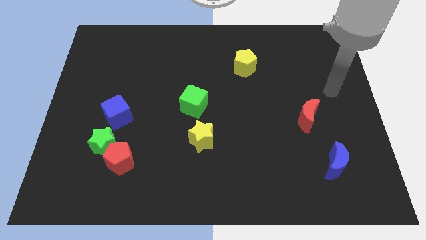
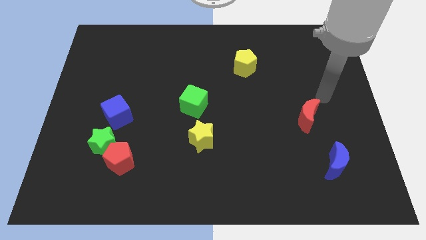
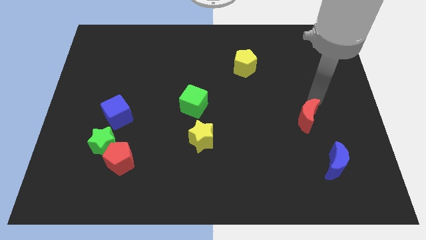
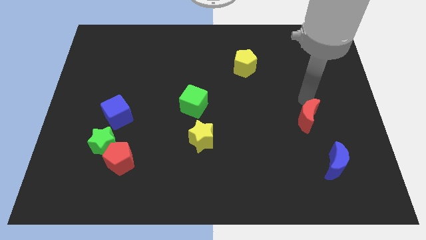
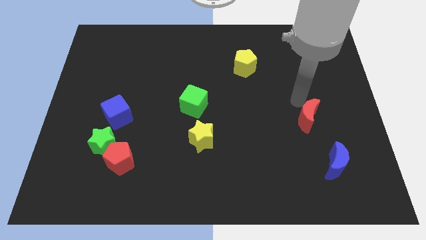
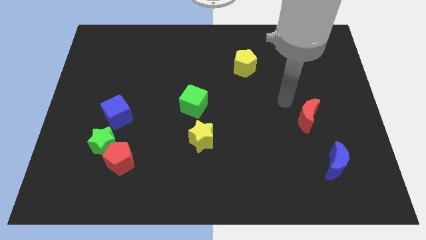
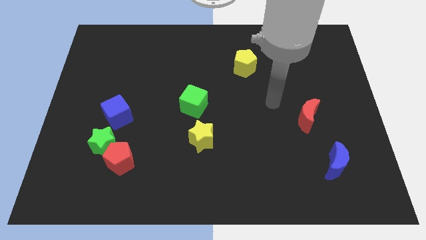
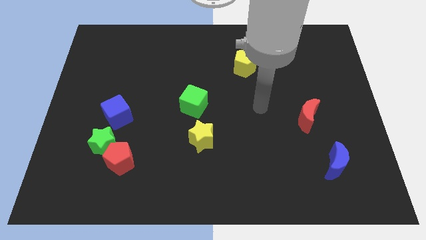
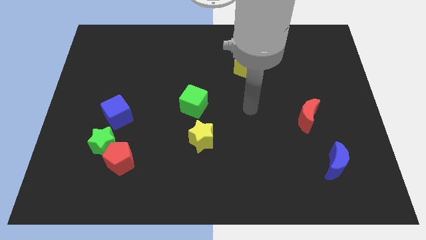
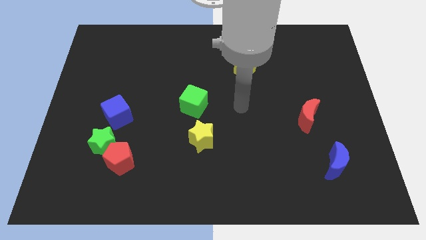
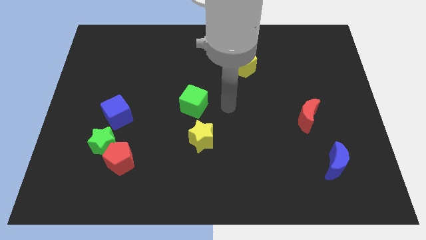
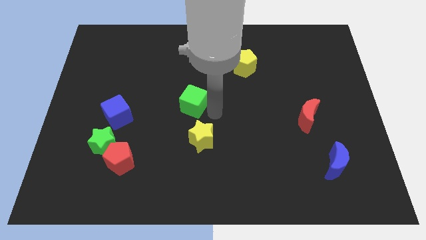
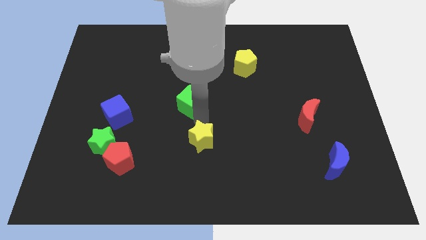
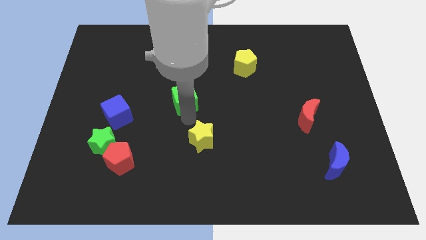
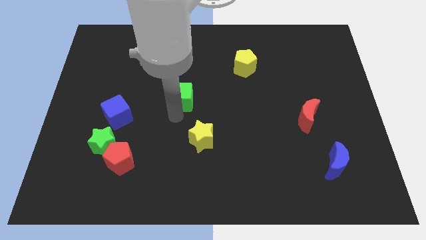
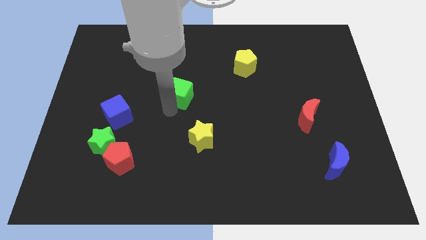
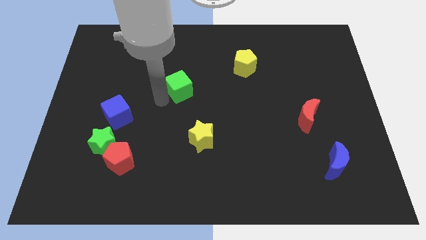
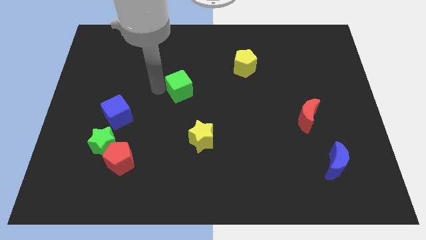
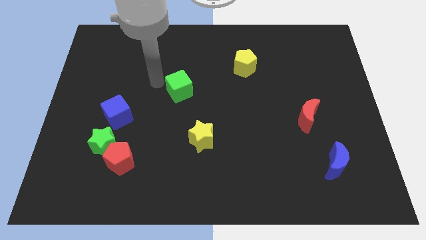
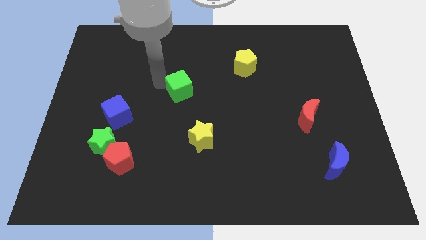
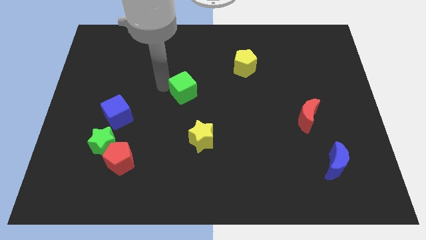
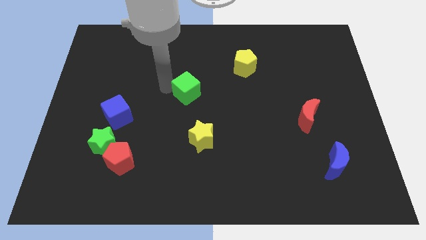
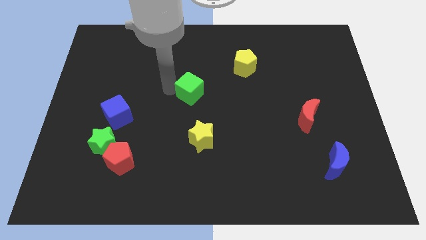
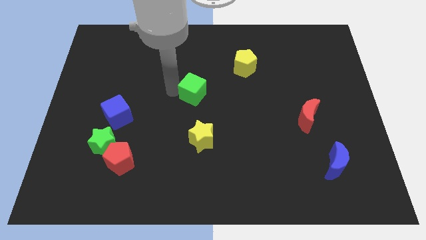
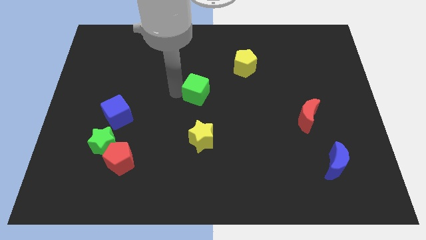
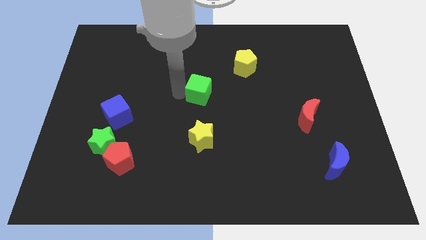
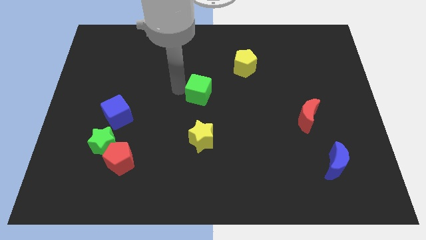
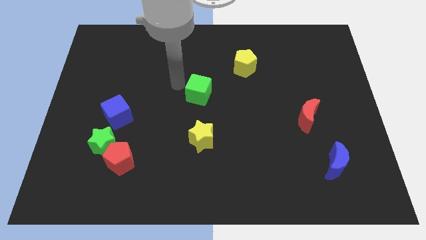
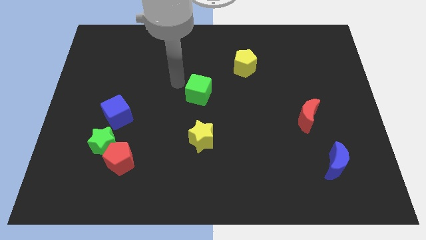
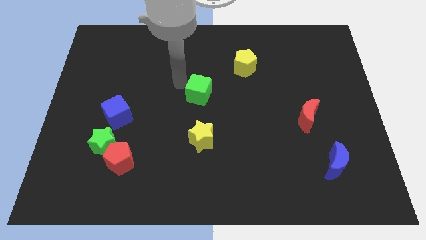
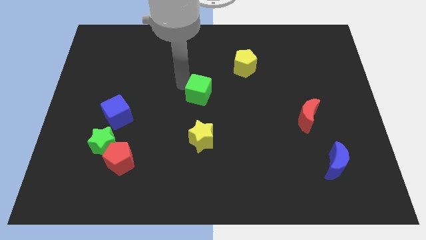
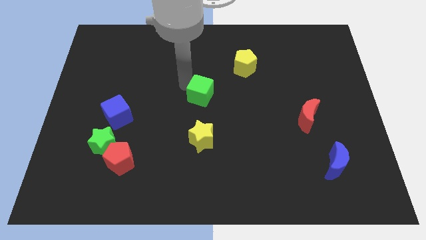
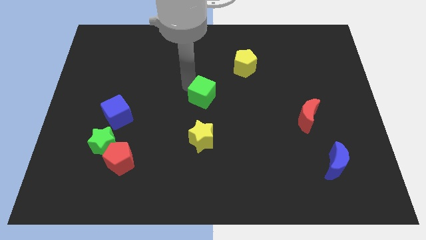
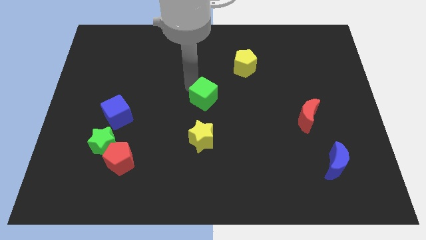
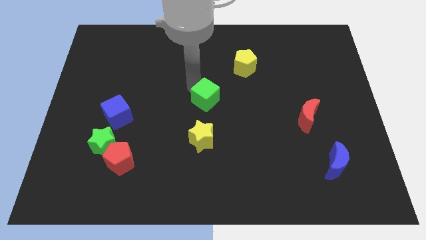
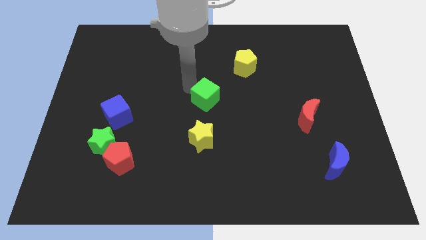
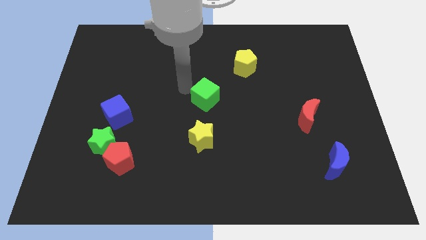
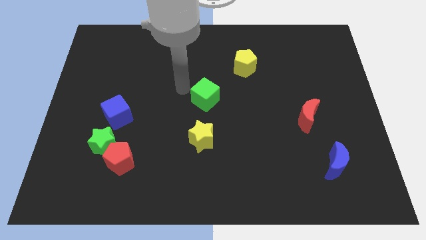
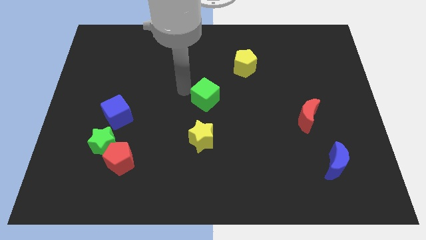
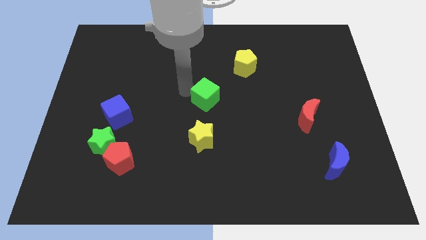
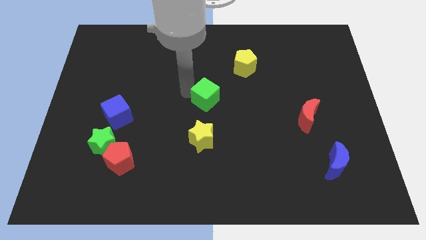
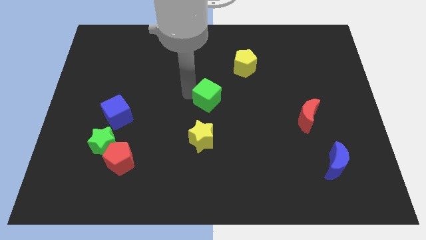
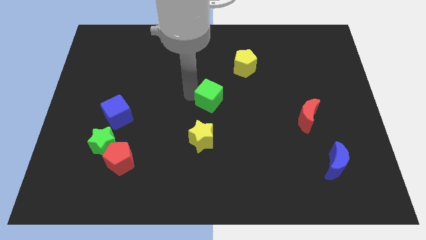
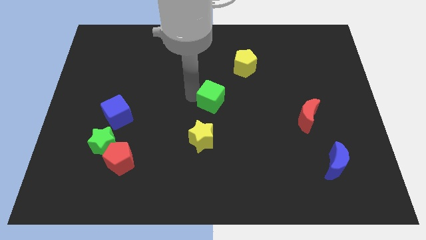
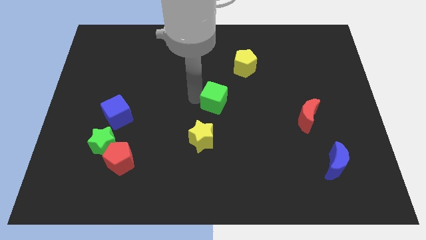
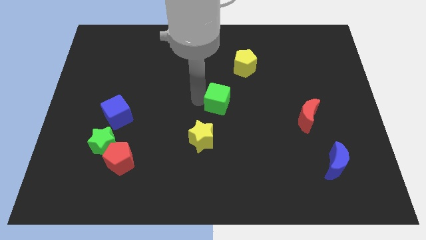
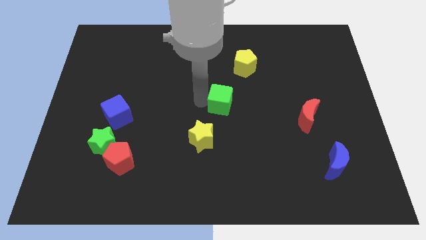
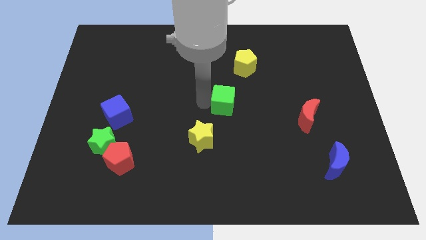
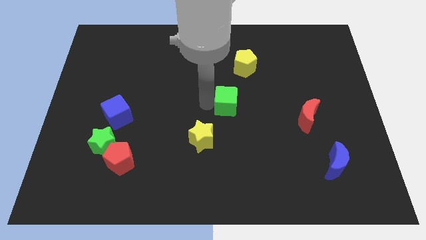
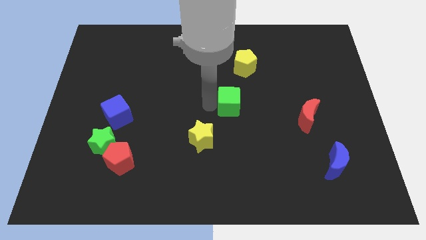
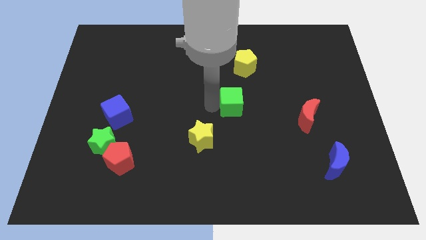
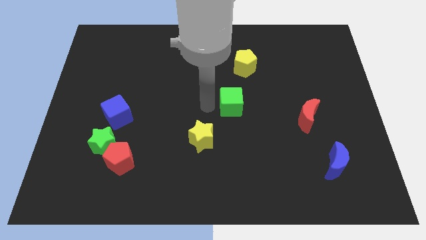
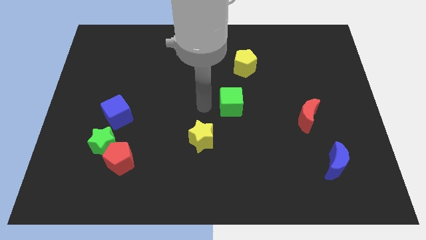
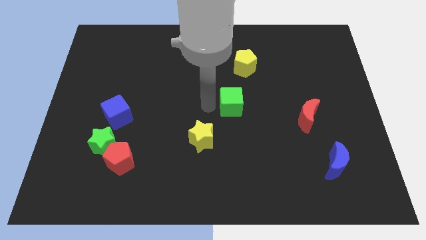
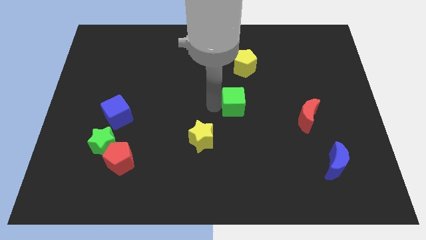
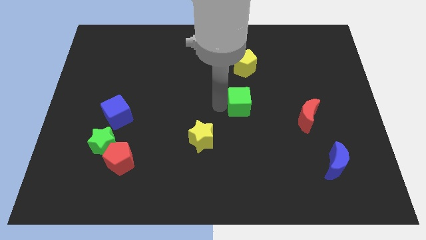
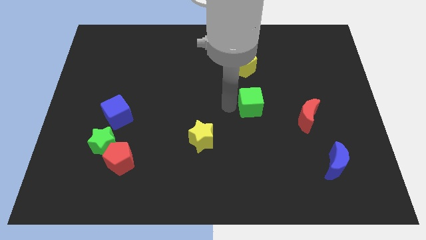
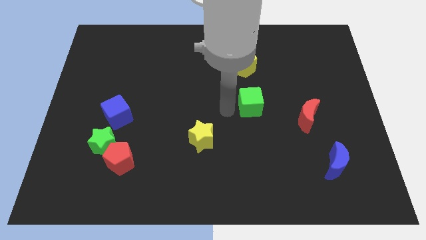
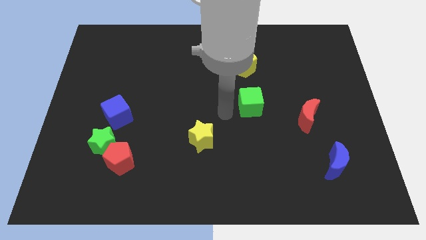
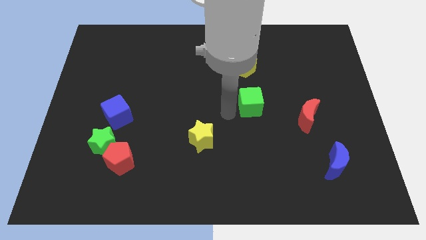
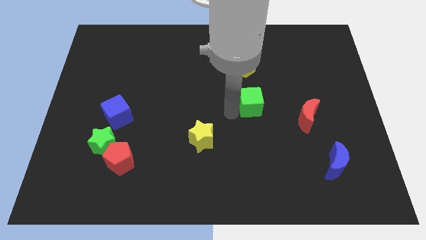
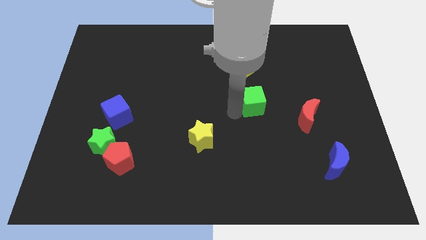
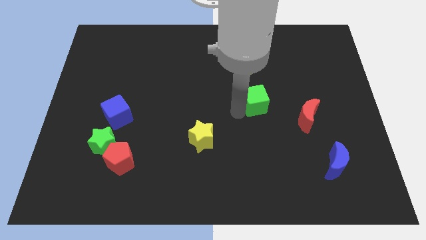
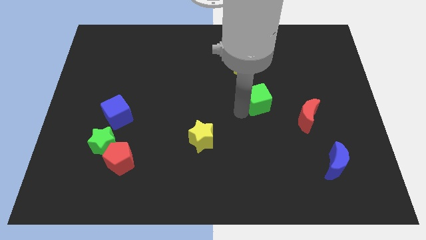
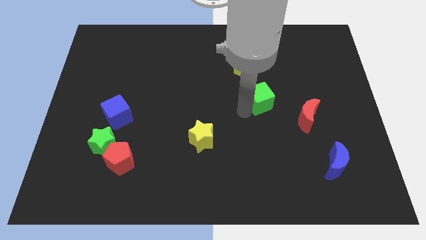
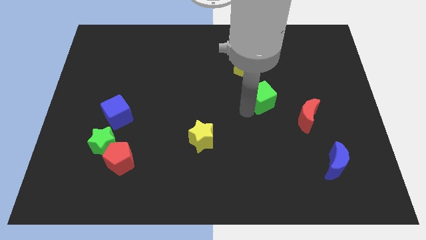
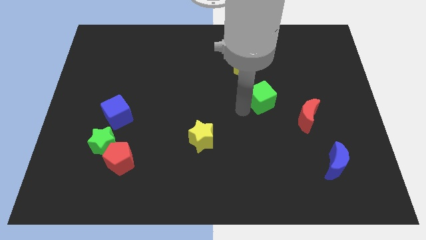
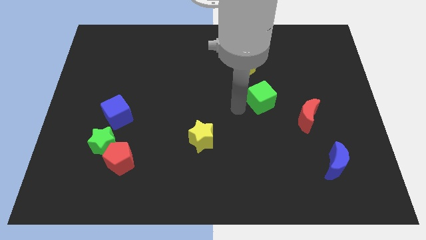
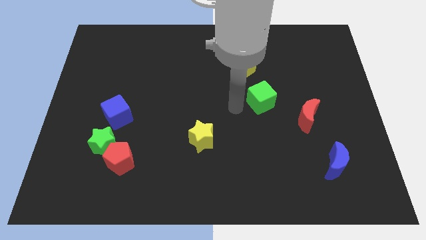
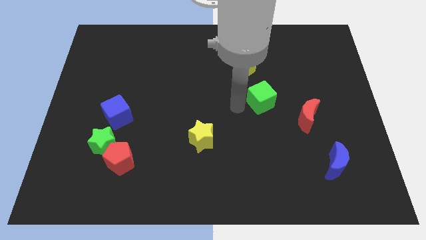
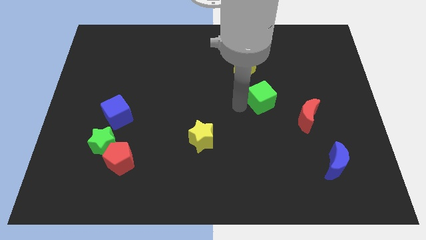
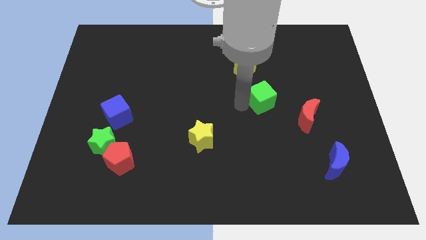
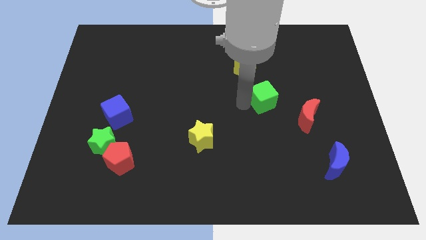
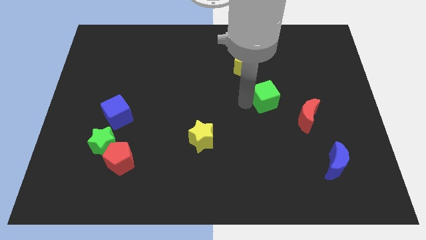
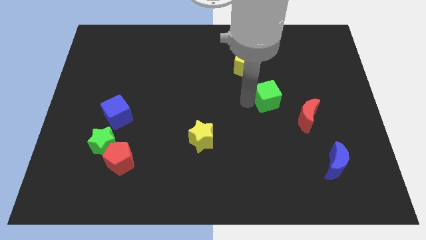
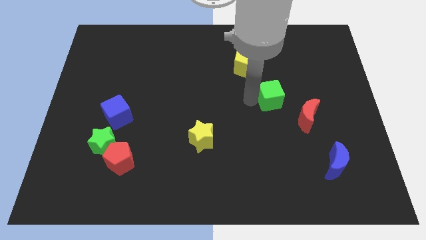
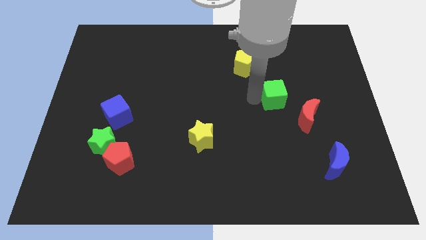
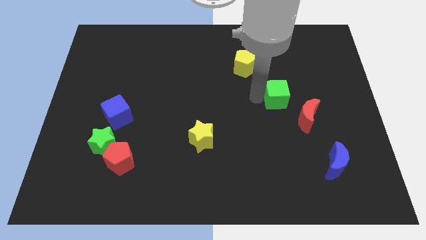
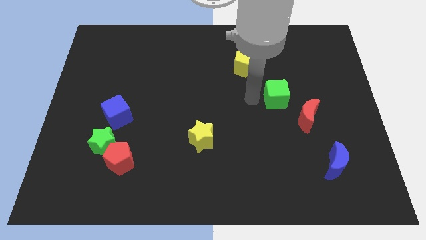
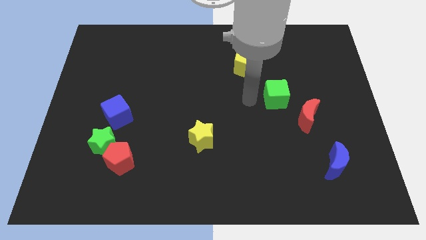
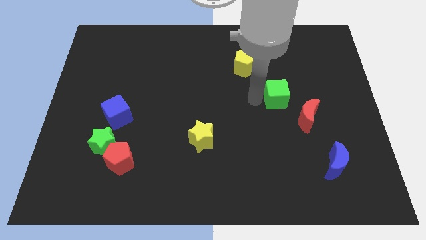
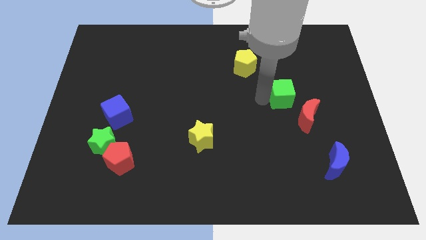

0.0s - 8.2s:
move the green cube to the right

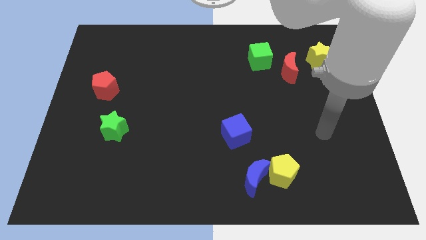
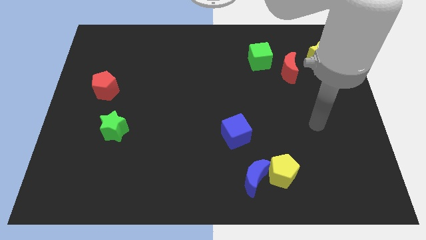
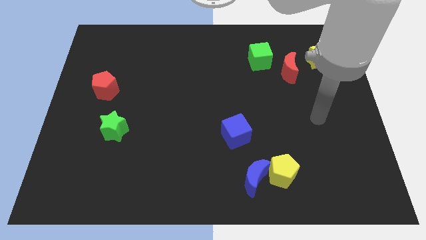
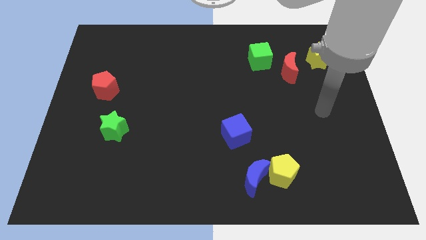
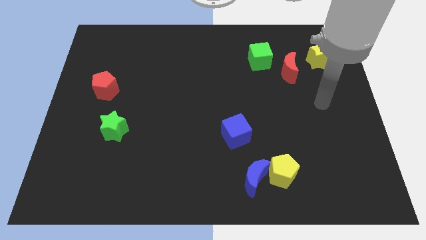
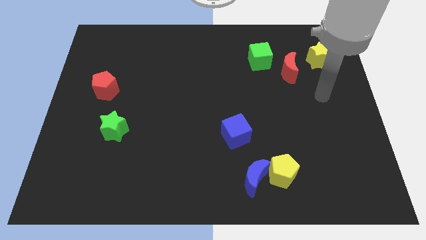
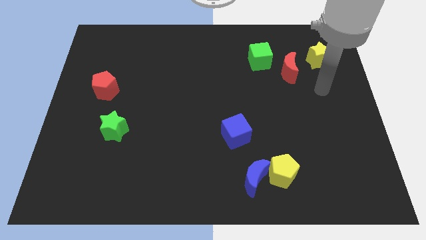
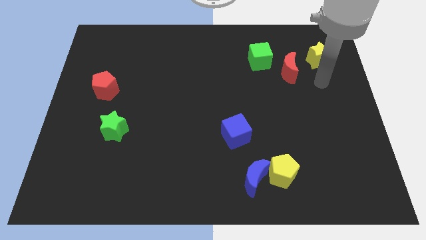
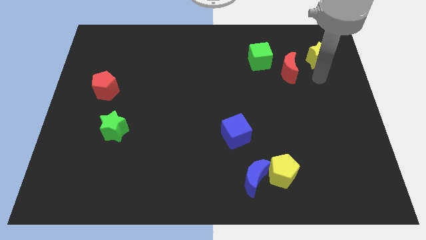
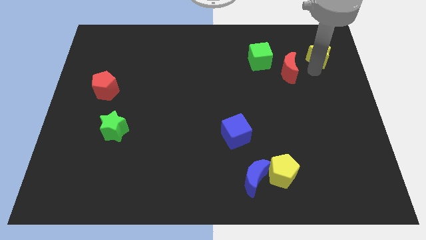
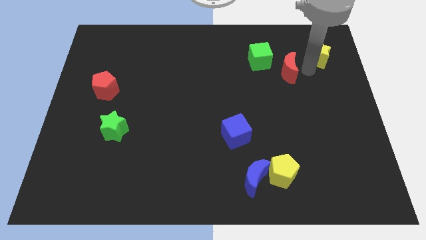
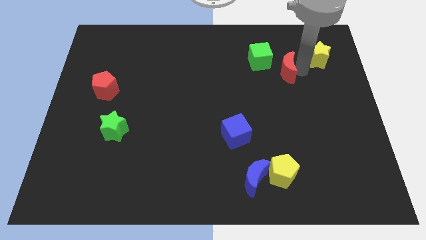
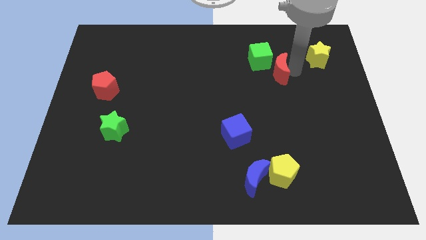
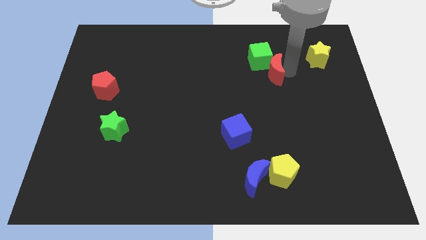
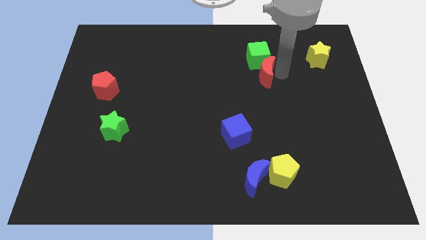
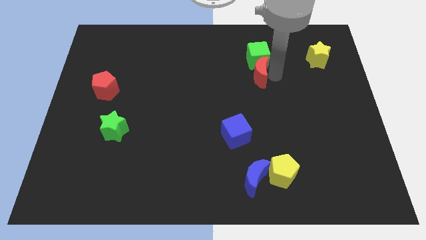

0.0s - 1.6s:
move the red moon slightly left
